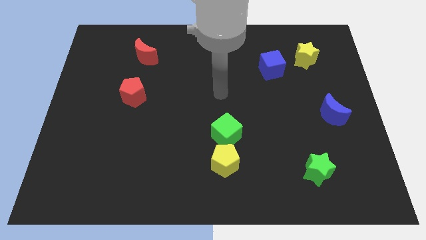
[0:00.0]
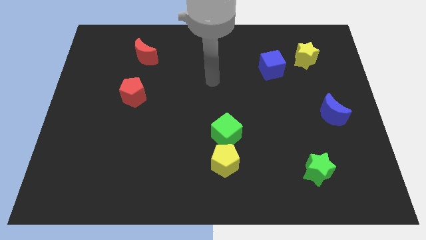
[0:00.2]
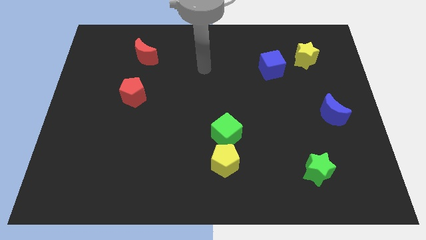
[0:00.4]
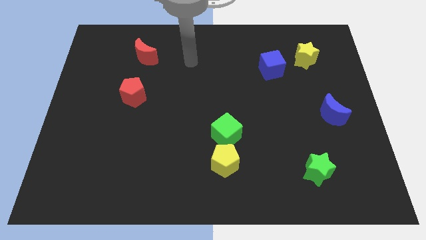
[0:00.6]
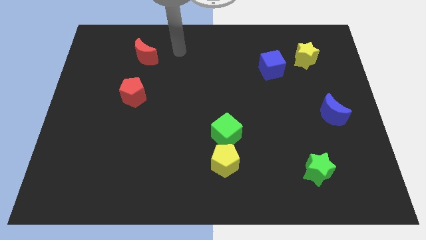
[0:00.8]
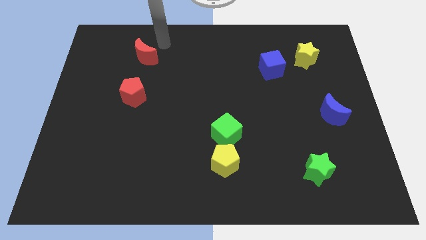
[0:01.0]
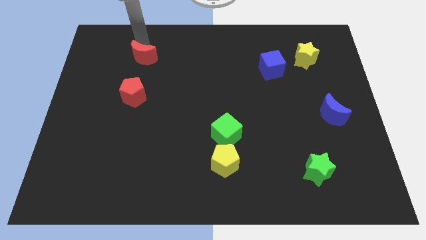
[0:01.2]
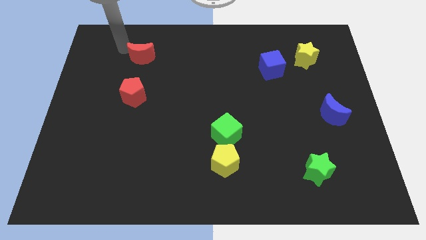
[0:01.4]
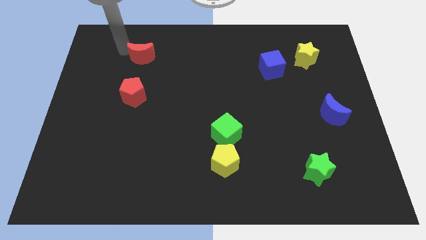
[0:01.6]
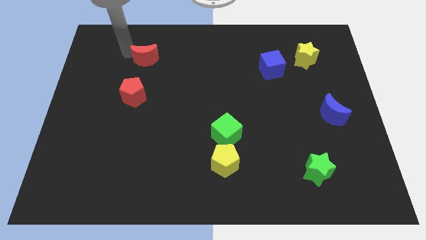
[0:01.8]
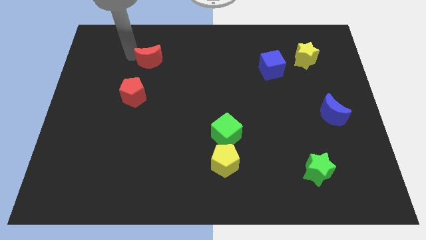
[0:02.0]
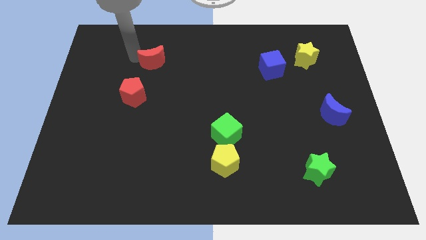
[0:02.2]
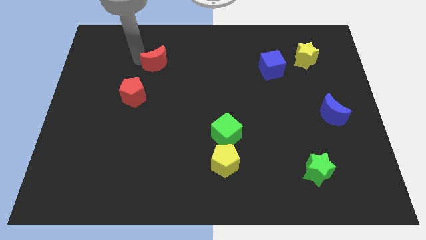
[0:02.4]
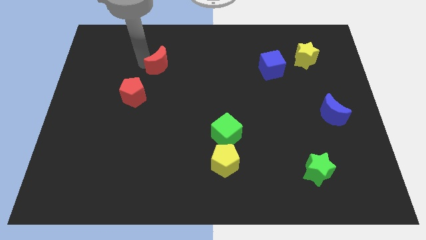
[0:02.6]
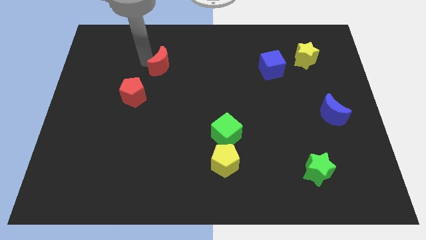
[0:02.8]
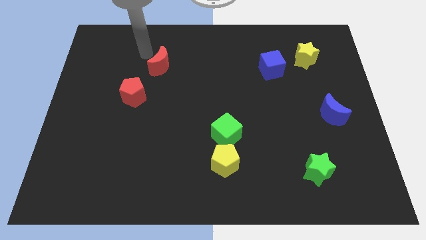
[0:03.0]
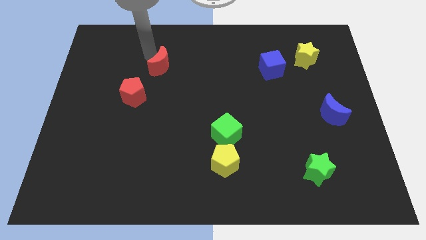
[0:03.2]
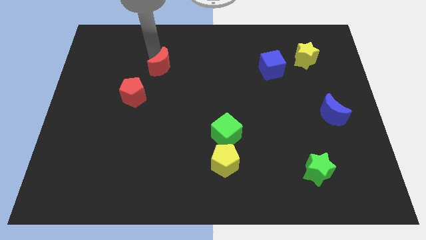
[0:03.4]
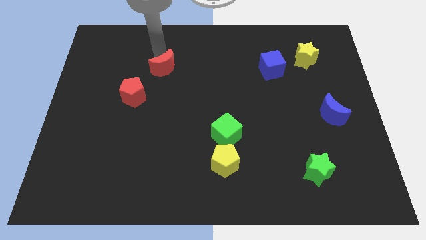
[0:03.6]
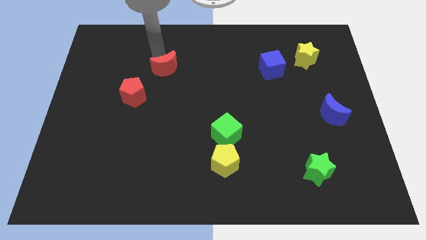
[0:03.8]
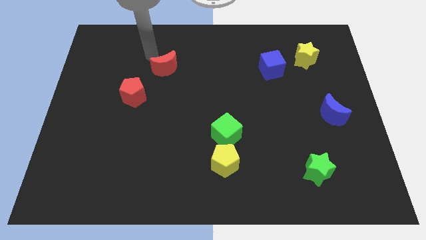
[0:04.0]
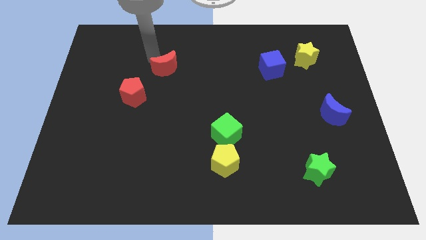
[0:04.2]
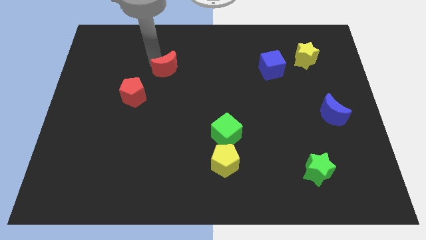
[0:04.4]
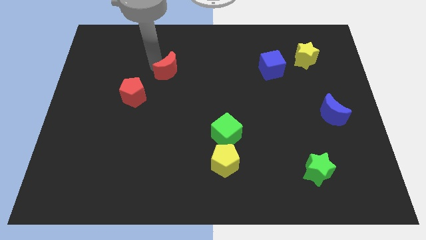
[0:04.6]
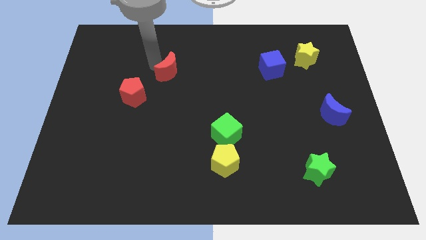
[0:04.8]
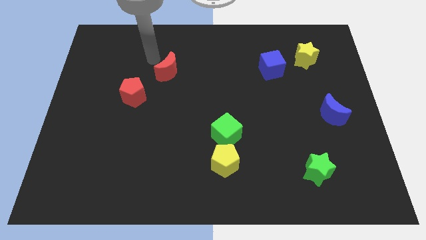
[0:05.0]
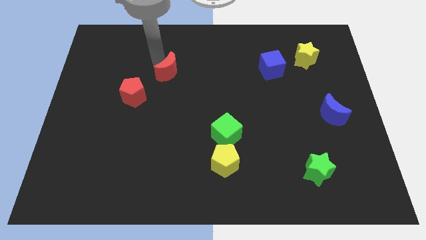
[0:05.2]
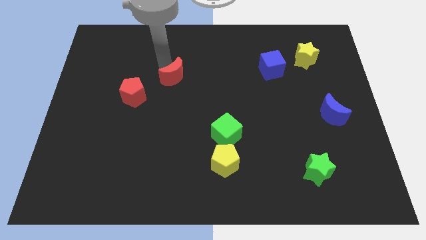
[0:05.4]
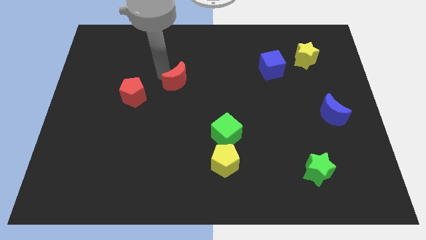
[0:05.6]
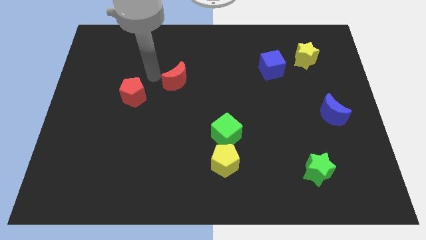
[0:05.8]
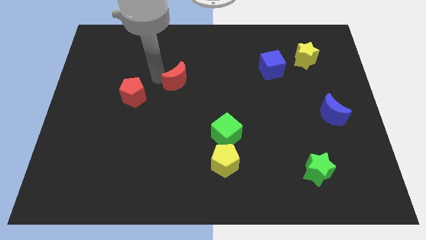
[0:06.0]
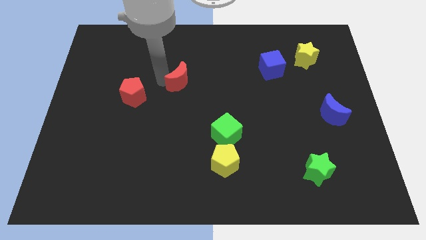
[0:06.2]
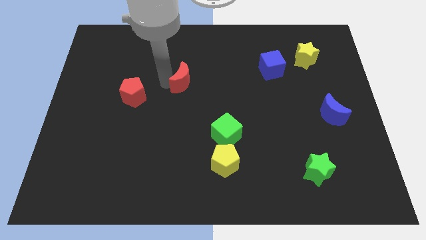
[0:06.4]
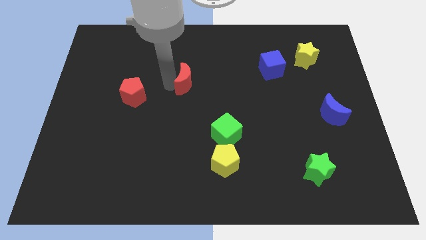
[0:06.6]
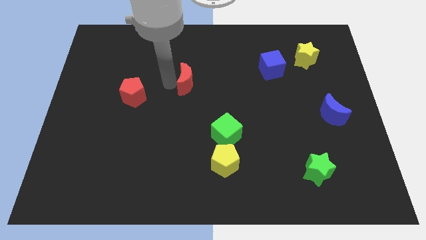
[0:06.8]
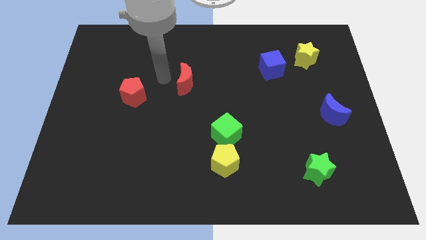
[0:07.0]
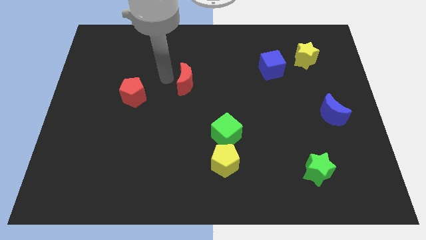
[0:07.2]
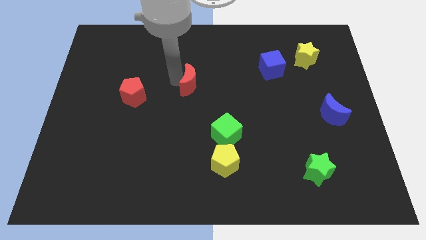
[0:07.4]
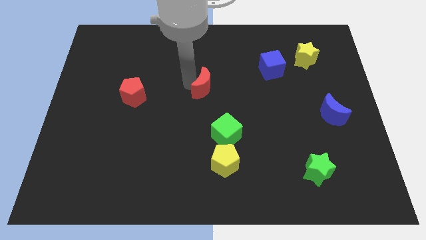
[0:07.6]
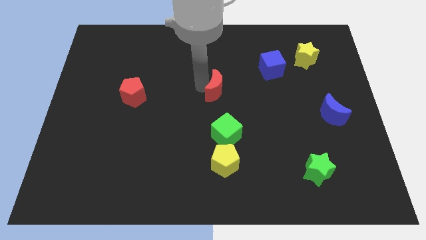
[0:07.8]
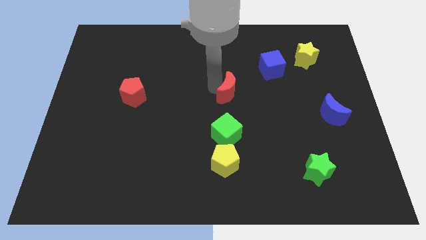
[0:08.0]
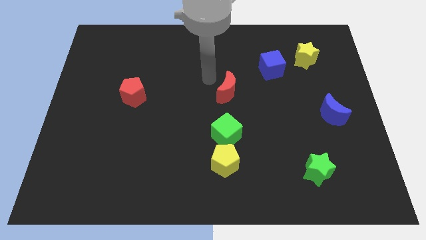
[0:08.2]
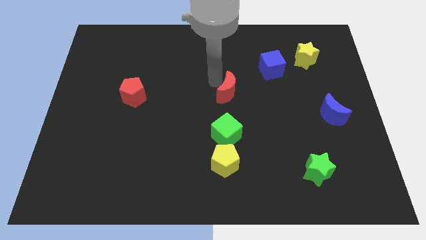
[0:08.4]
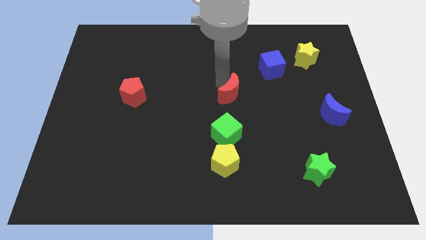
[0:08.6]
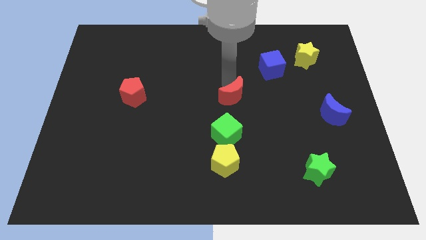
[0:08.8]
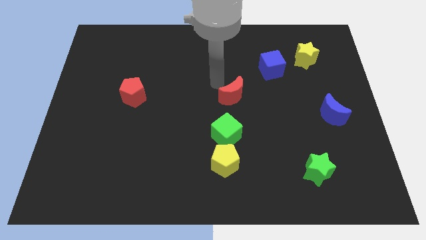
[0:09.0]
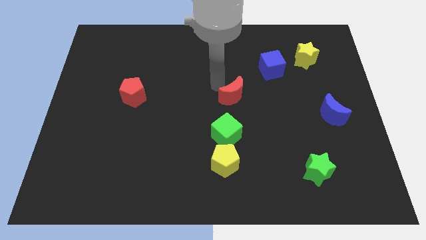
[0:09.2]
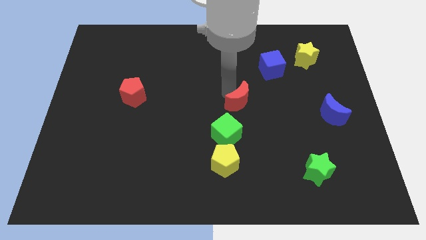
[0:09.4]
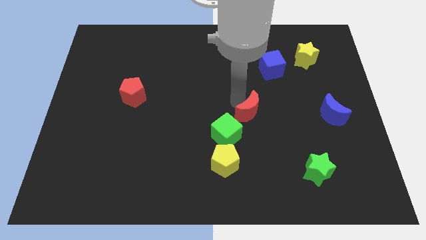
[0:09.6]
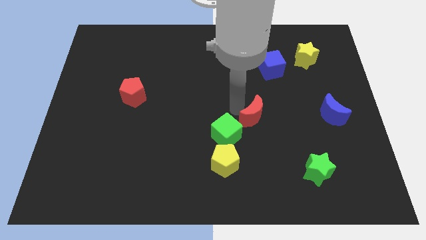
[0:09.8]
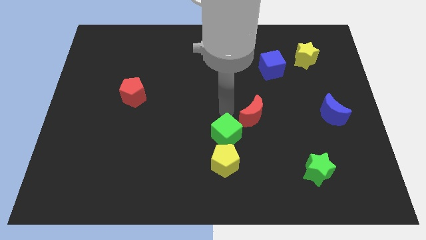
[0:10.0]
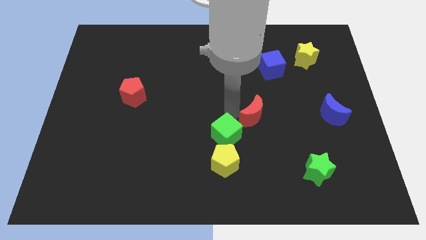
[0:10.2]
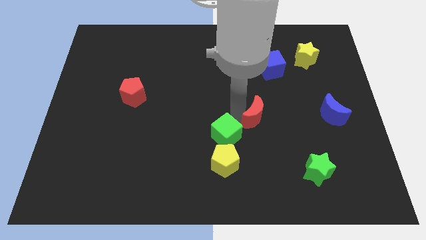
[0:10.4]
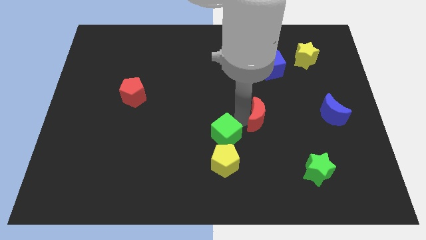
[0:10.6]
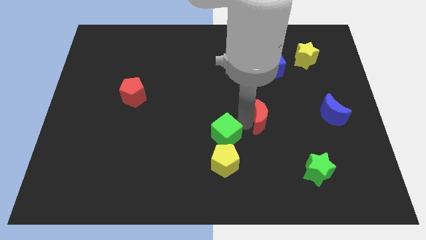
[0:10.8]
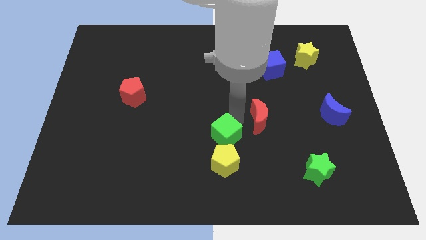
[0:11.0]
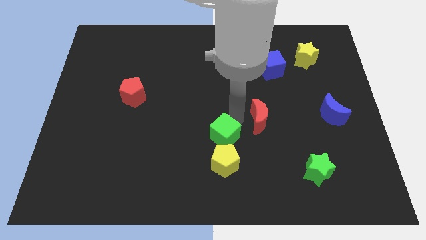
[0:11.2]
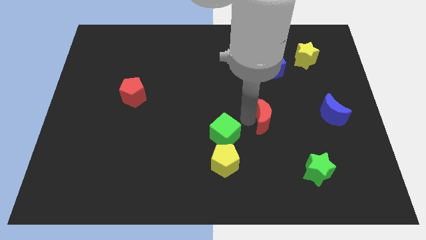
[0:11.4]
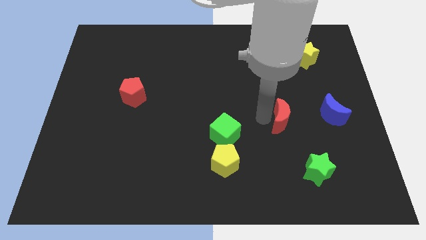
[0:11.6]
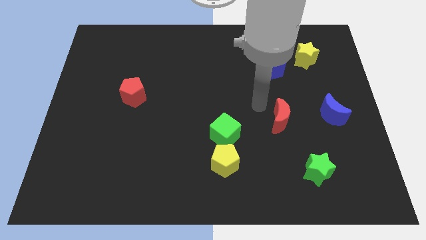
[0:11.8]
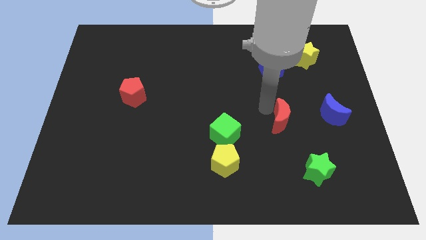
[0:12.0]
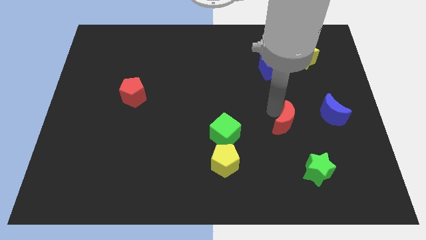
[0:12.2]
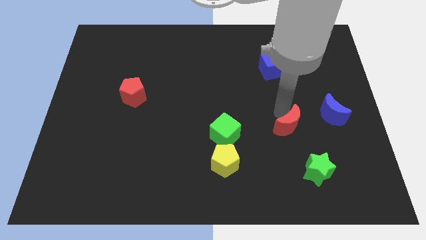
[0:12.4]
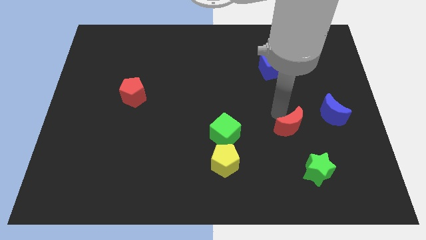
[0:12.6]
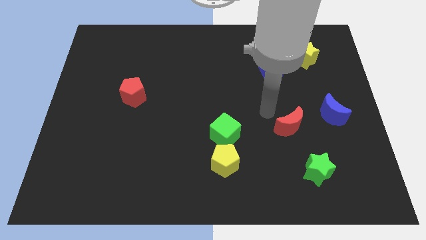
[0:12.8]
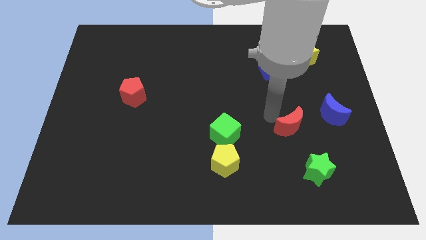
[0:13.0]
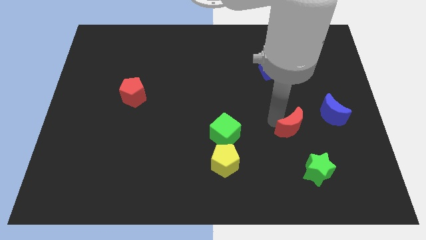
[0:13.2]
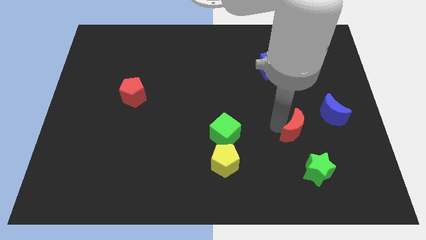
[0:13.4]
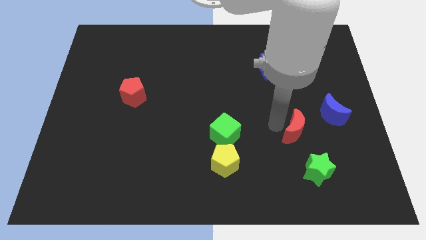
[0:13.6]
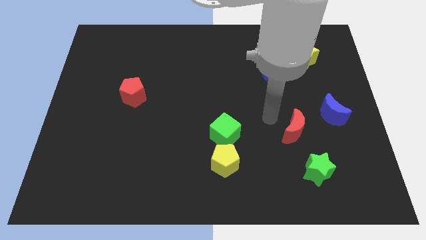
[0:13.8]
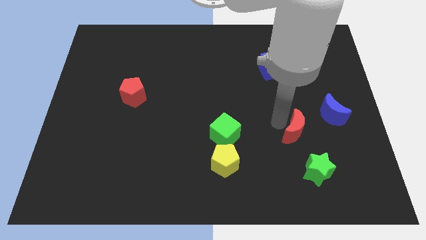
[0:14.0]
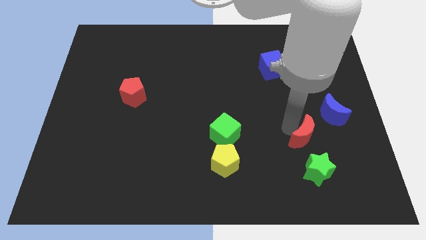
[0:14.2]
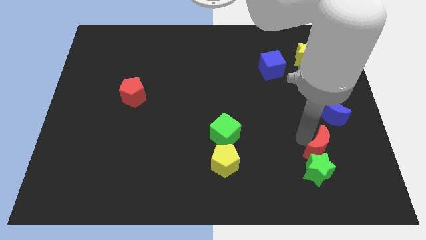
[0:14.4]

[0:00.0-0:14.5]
push the red moon to the bottom side of the blue moon

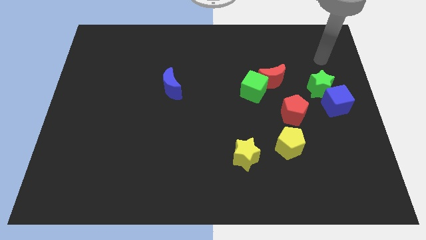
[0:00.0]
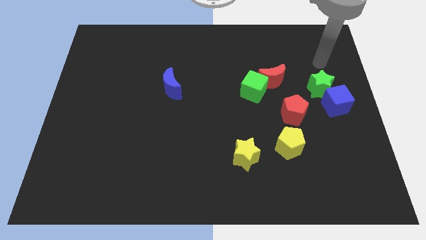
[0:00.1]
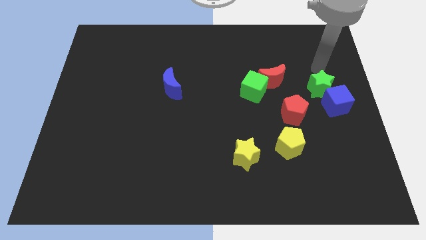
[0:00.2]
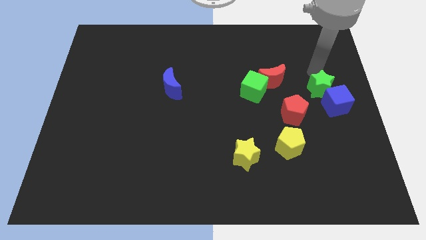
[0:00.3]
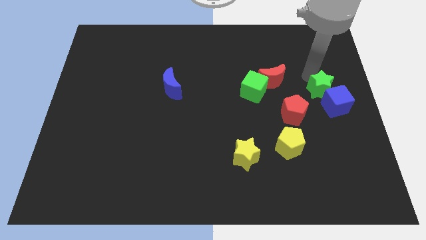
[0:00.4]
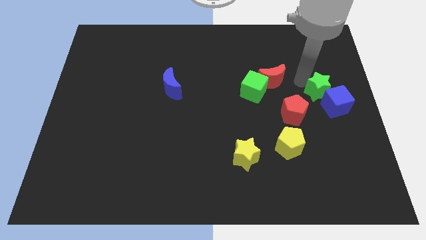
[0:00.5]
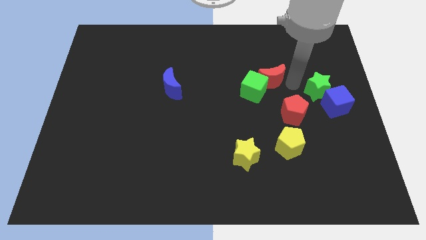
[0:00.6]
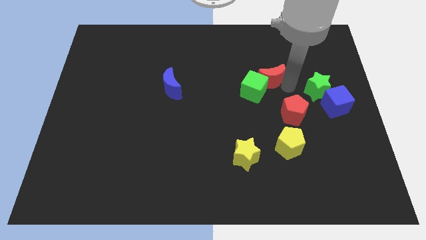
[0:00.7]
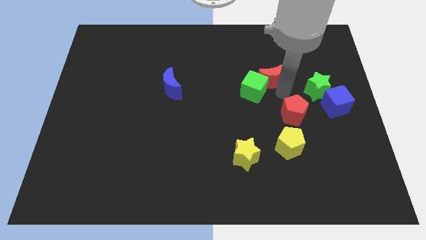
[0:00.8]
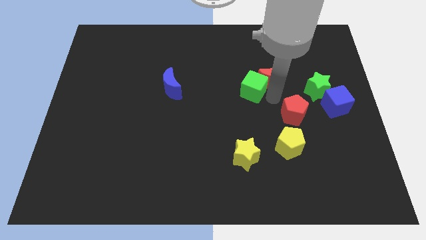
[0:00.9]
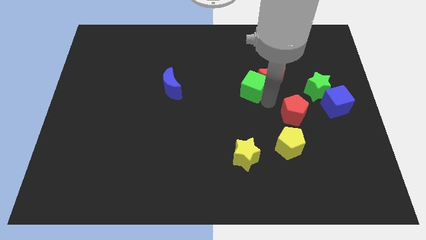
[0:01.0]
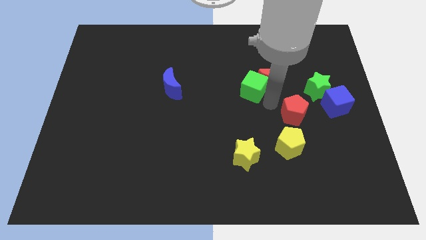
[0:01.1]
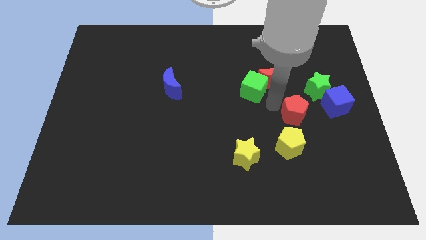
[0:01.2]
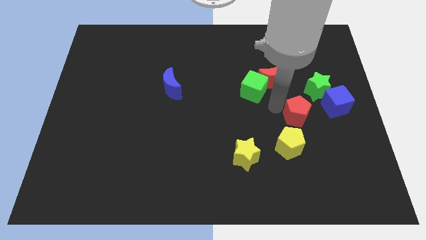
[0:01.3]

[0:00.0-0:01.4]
push the red pentagon diagonally down and to the left of the blue cube
